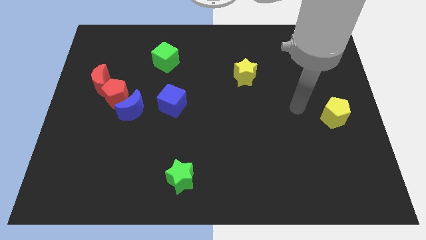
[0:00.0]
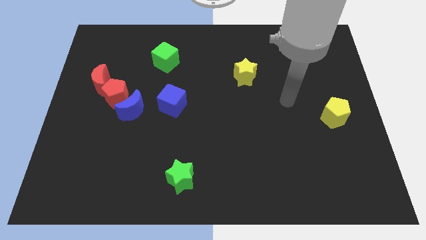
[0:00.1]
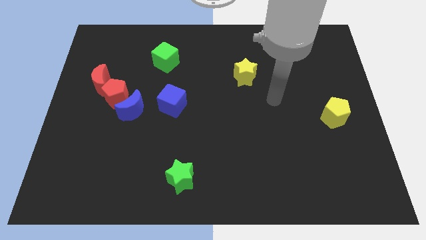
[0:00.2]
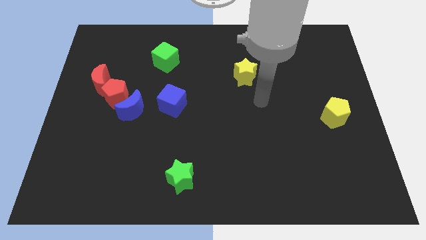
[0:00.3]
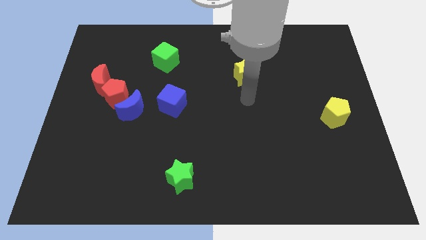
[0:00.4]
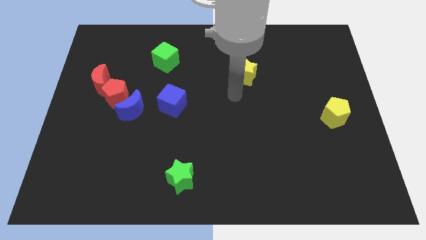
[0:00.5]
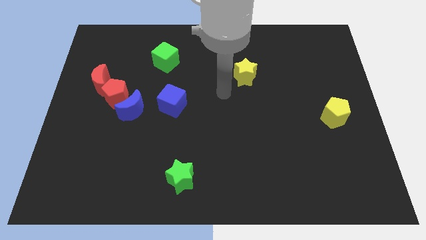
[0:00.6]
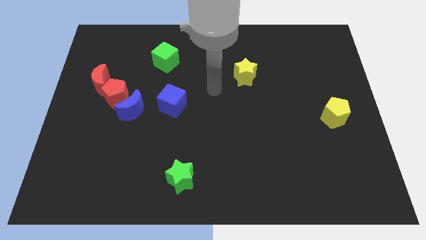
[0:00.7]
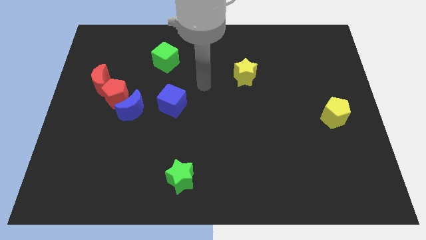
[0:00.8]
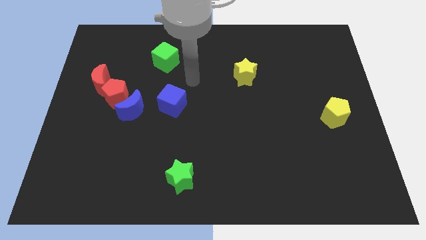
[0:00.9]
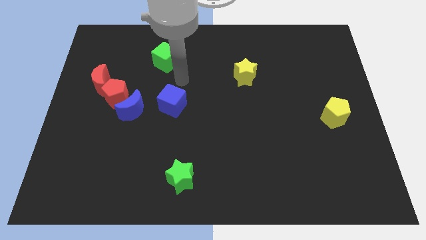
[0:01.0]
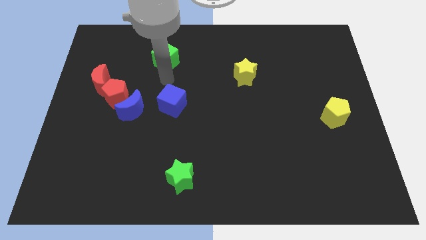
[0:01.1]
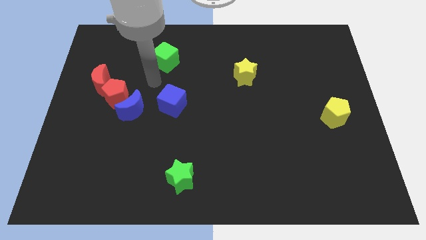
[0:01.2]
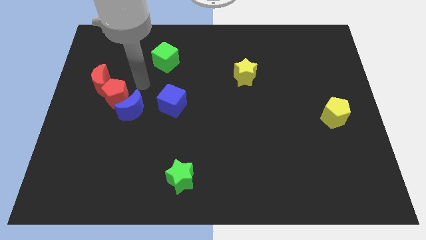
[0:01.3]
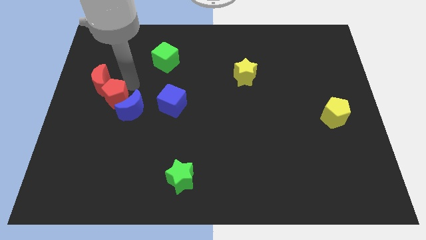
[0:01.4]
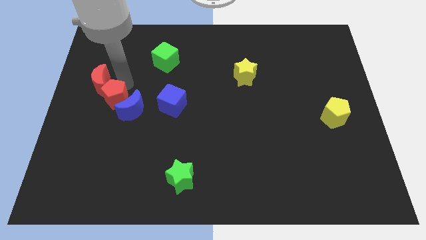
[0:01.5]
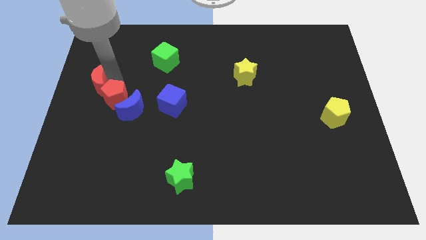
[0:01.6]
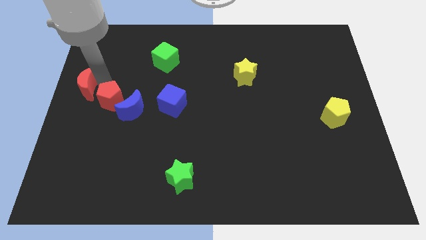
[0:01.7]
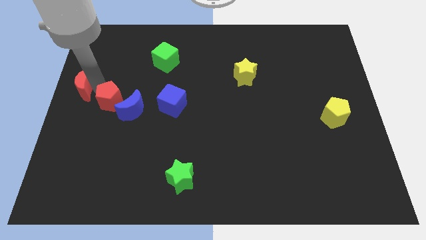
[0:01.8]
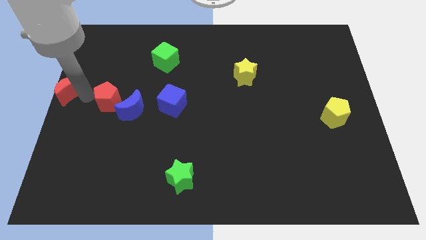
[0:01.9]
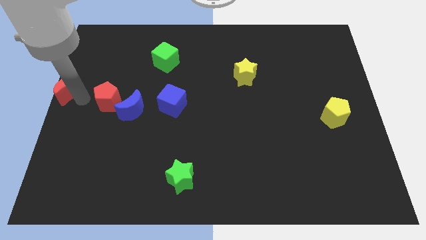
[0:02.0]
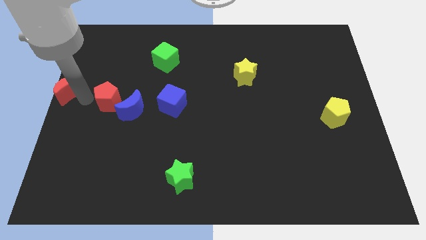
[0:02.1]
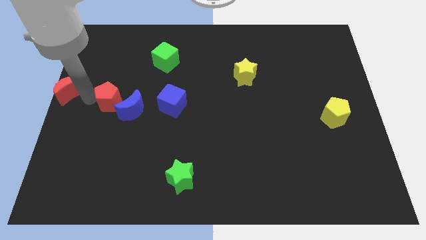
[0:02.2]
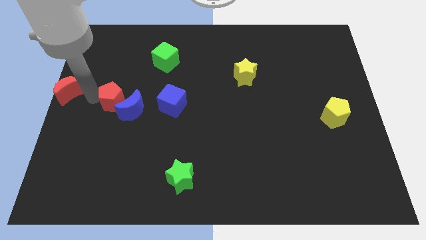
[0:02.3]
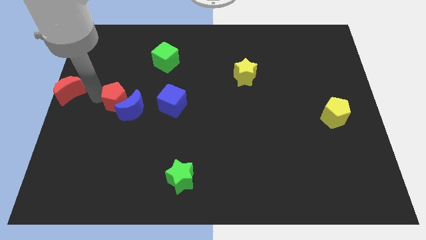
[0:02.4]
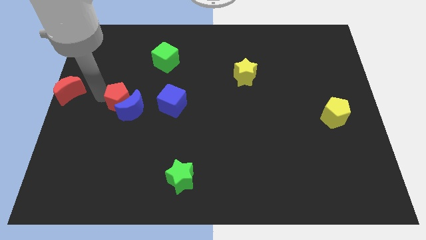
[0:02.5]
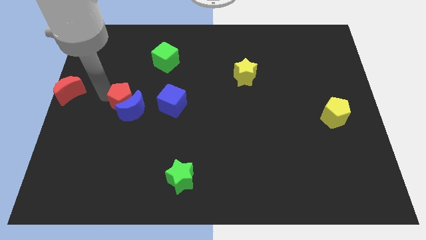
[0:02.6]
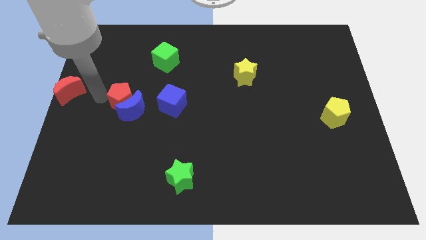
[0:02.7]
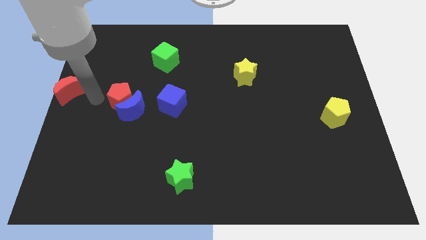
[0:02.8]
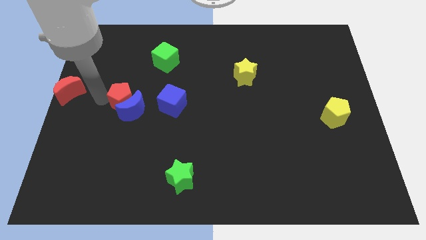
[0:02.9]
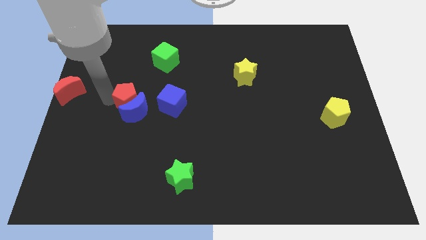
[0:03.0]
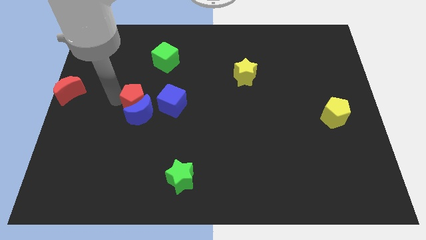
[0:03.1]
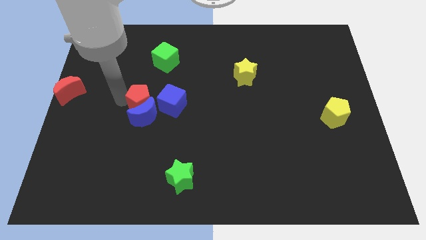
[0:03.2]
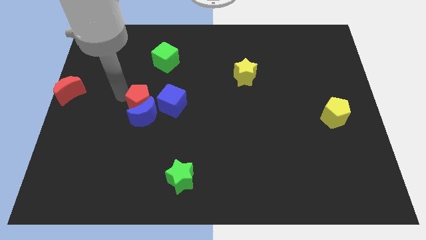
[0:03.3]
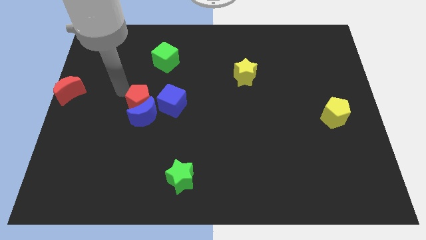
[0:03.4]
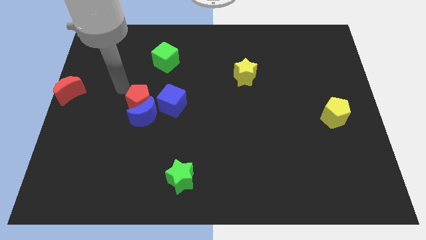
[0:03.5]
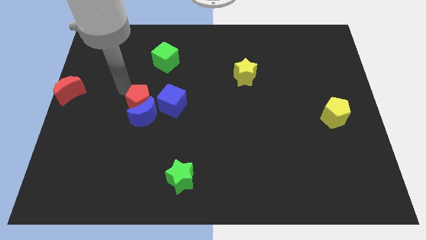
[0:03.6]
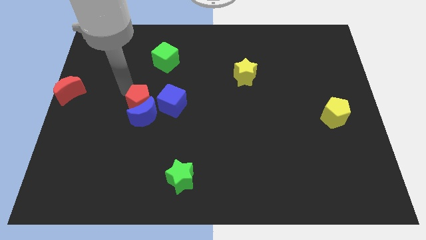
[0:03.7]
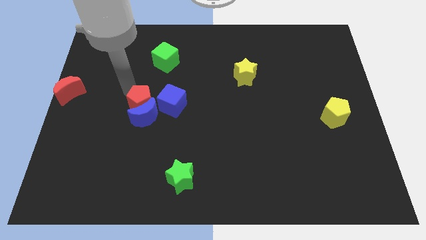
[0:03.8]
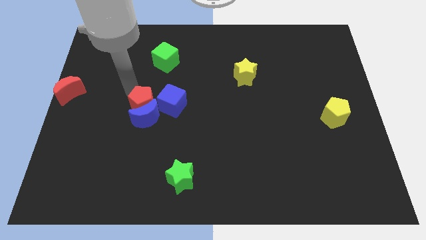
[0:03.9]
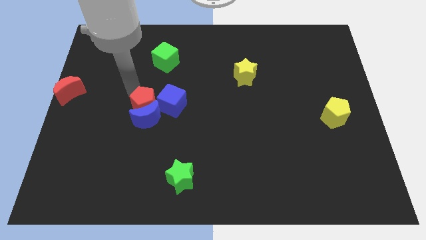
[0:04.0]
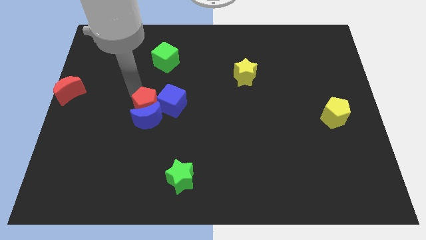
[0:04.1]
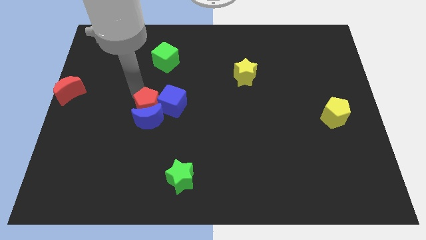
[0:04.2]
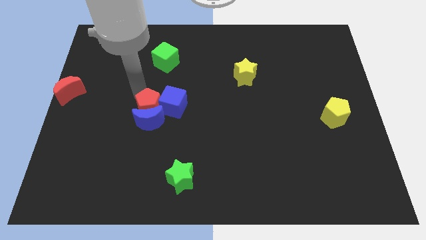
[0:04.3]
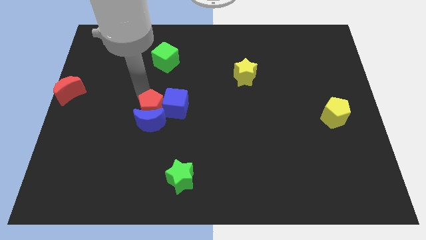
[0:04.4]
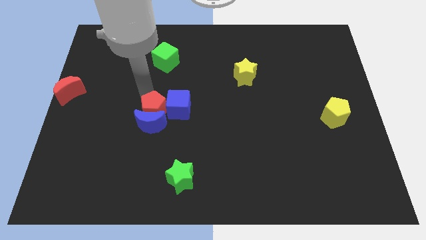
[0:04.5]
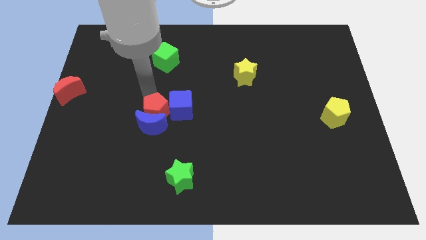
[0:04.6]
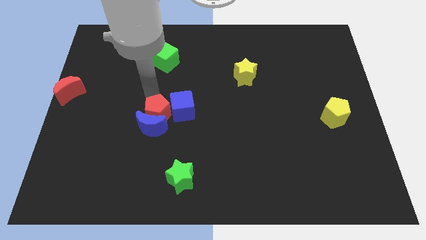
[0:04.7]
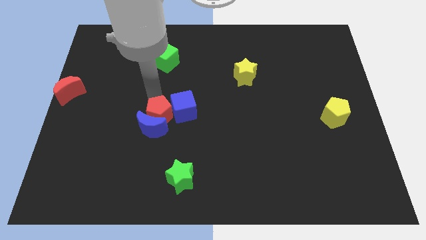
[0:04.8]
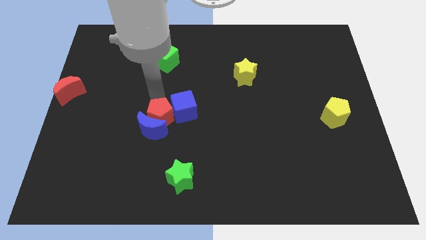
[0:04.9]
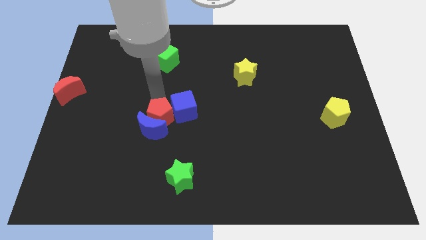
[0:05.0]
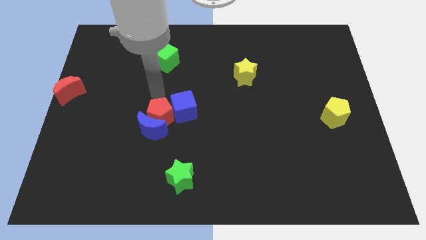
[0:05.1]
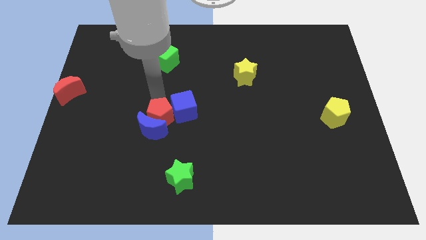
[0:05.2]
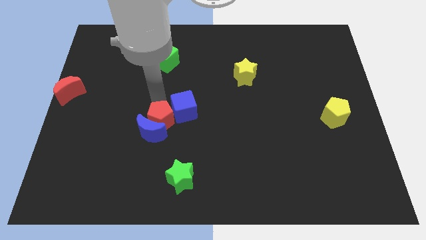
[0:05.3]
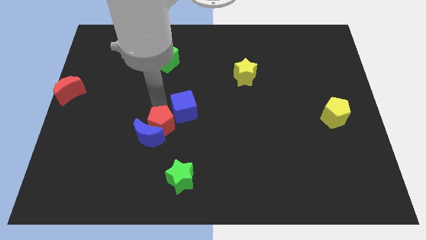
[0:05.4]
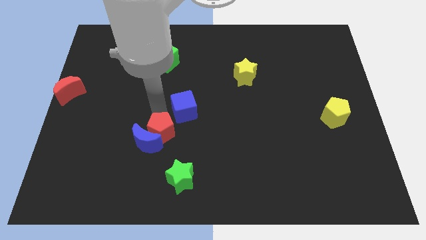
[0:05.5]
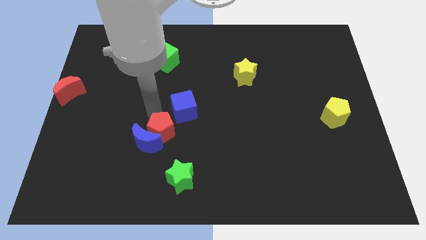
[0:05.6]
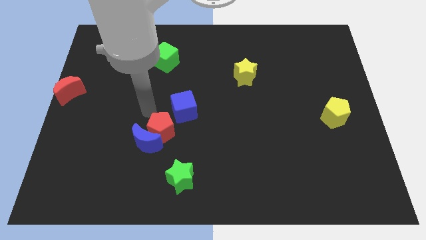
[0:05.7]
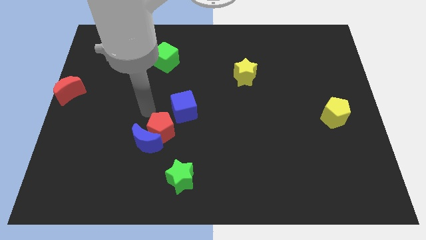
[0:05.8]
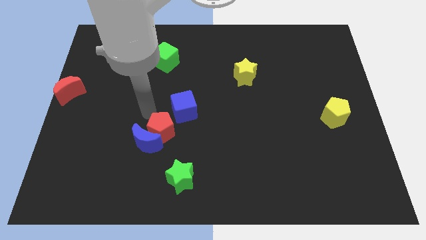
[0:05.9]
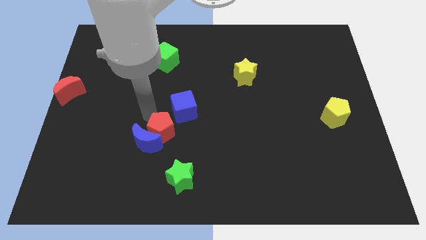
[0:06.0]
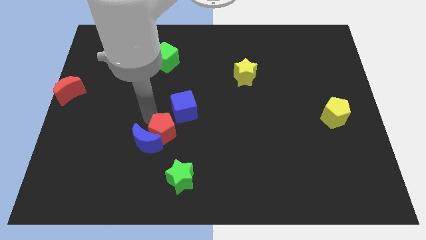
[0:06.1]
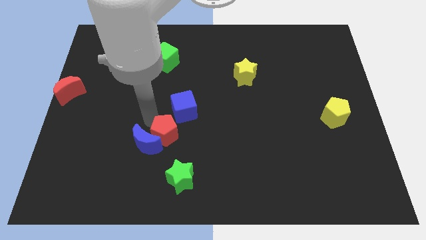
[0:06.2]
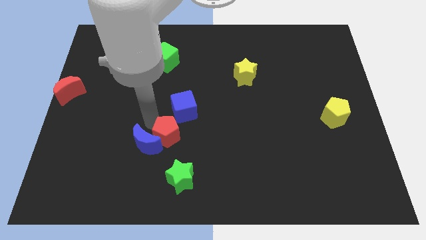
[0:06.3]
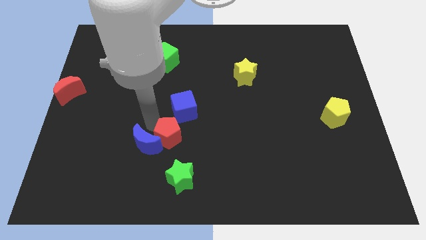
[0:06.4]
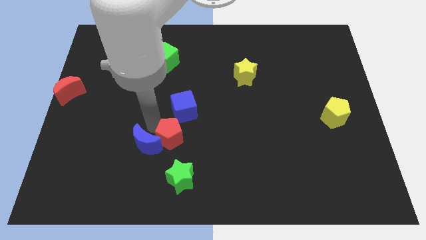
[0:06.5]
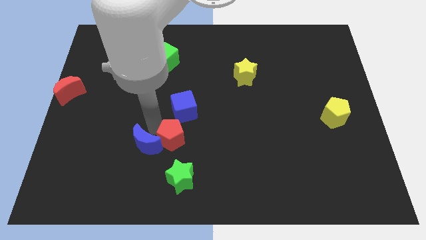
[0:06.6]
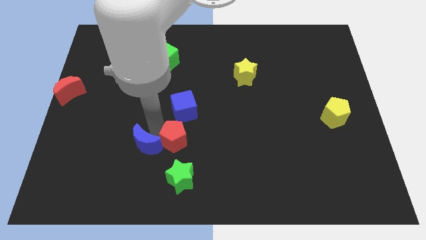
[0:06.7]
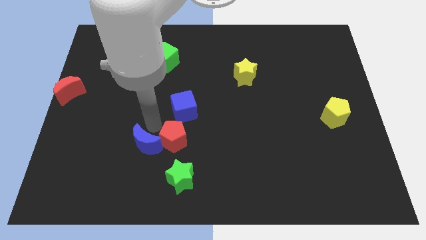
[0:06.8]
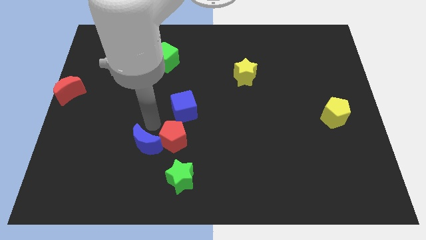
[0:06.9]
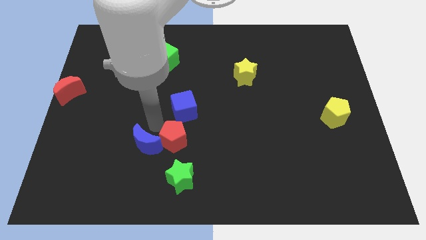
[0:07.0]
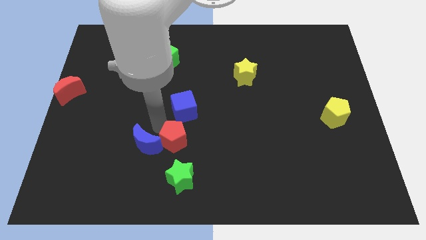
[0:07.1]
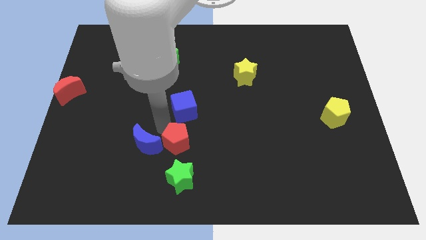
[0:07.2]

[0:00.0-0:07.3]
move the red pentagon diagonally downwards and to the right

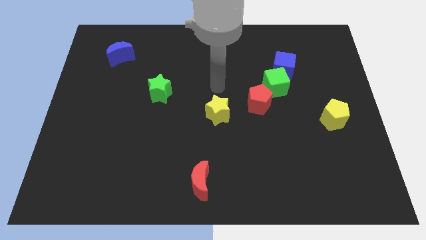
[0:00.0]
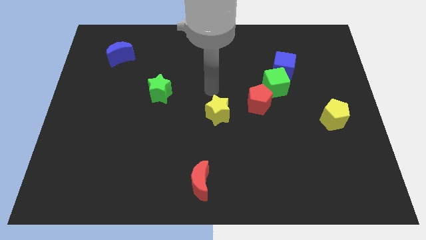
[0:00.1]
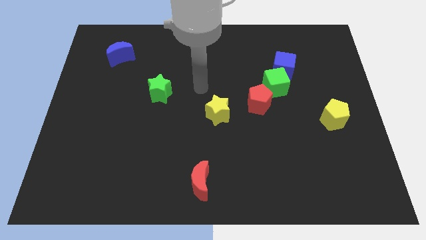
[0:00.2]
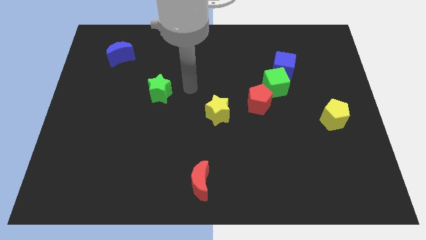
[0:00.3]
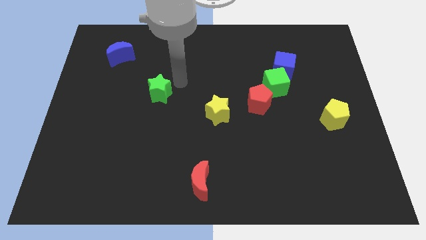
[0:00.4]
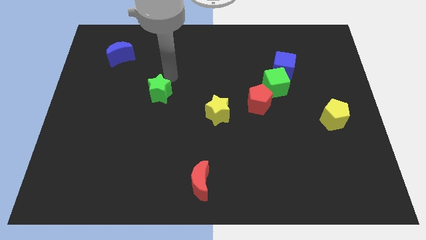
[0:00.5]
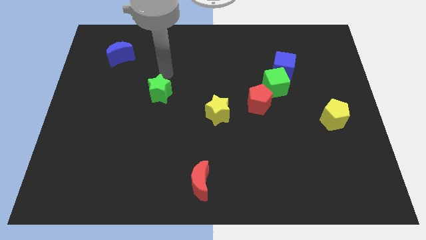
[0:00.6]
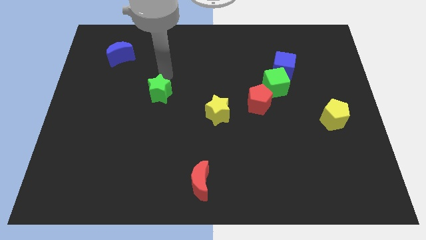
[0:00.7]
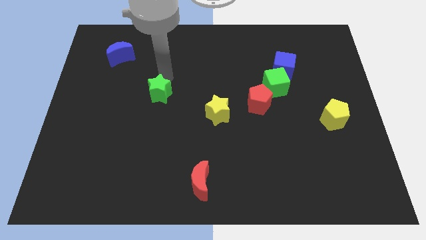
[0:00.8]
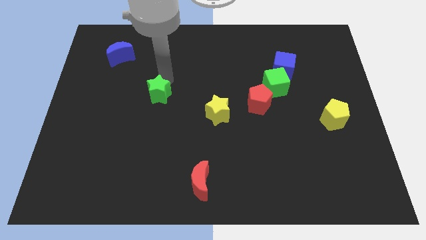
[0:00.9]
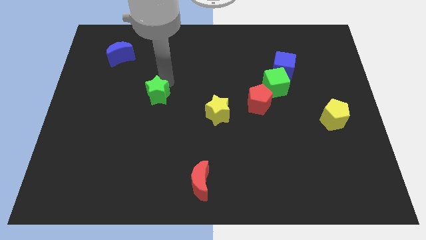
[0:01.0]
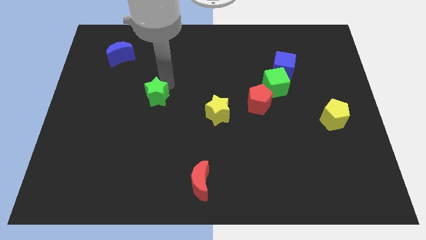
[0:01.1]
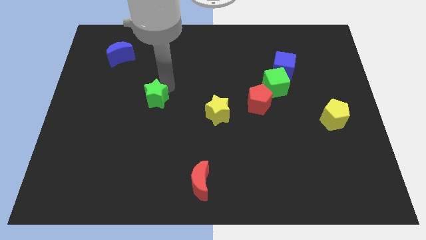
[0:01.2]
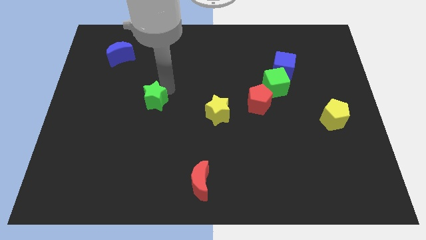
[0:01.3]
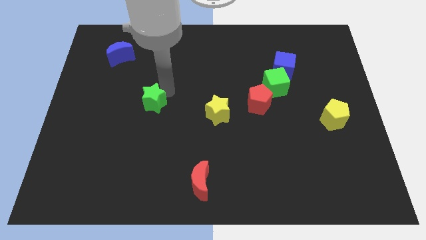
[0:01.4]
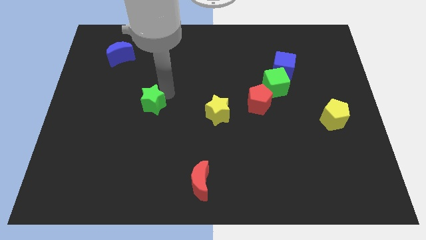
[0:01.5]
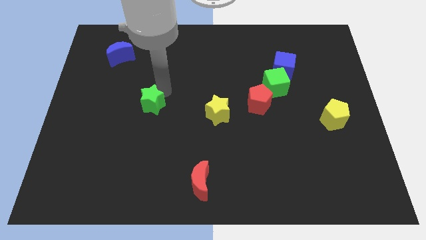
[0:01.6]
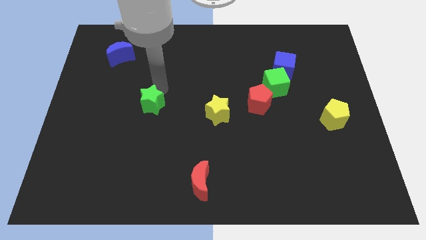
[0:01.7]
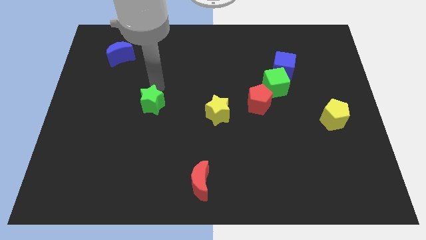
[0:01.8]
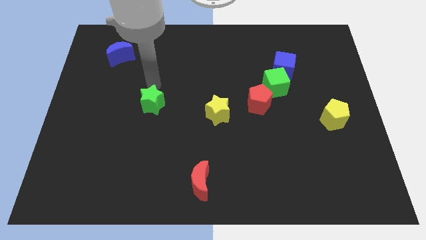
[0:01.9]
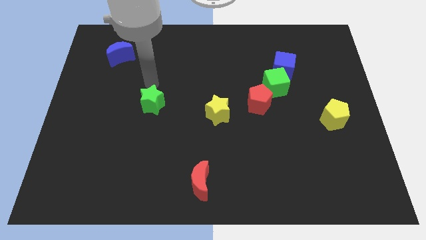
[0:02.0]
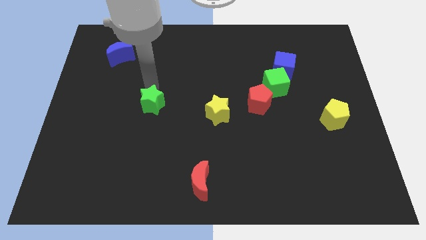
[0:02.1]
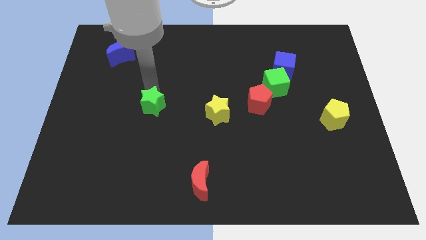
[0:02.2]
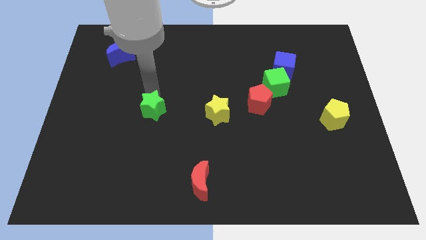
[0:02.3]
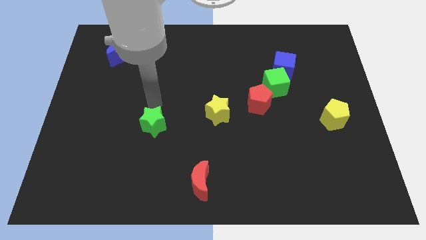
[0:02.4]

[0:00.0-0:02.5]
slide the green star down a bit
